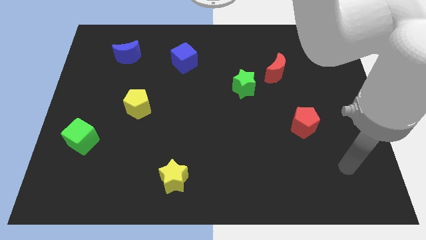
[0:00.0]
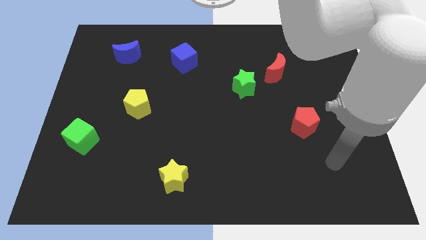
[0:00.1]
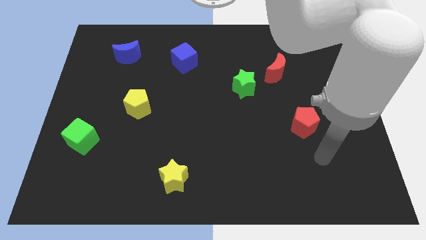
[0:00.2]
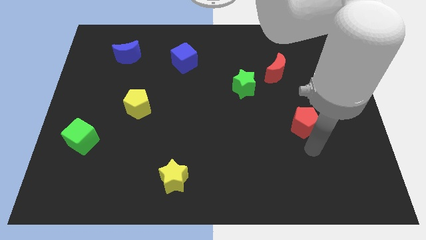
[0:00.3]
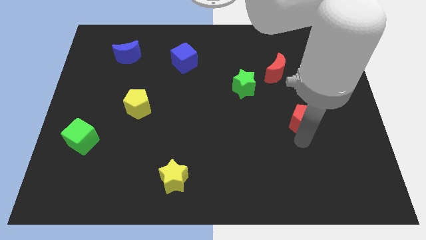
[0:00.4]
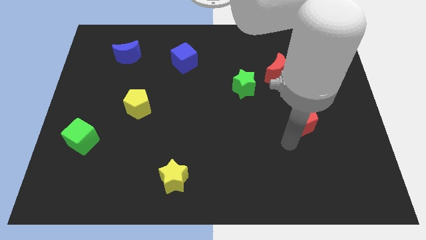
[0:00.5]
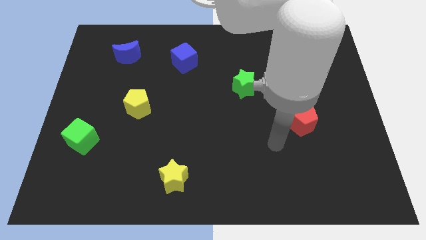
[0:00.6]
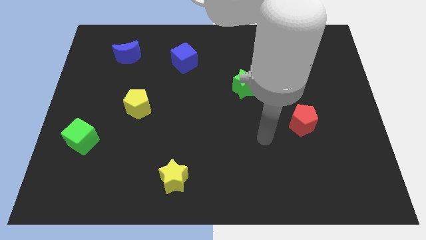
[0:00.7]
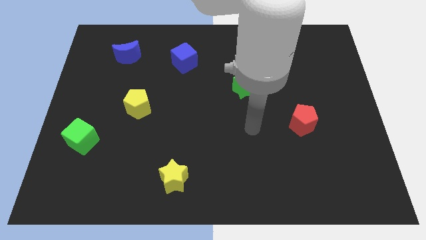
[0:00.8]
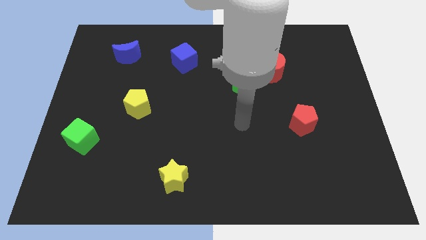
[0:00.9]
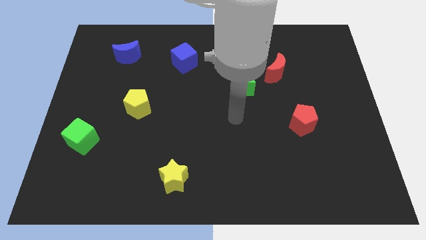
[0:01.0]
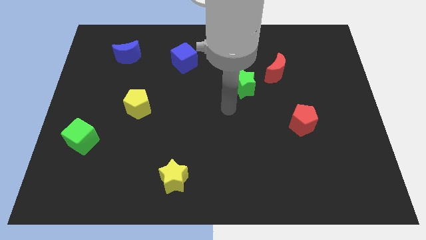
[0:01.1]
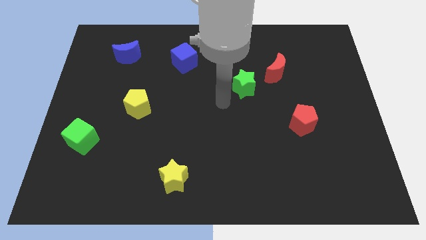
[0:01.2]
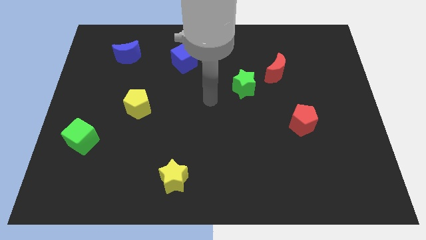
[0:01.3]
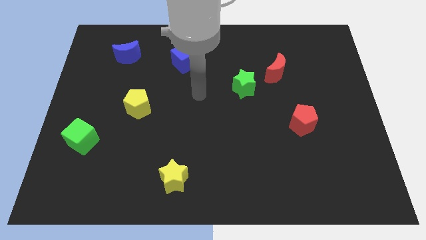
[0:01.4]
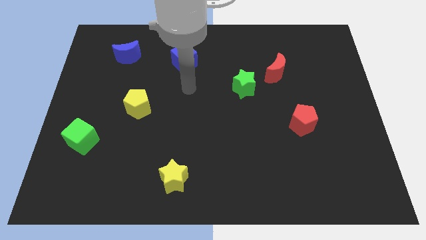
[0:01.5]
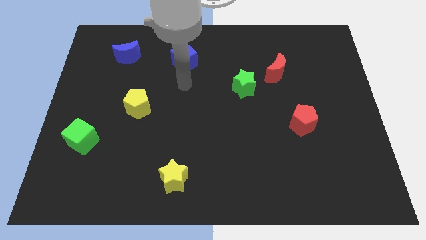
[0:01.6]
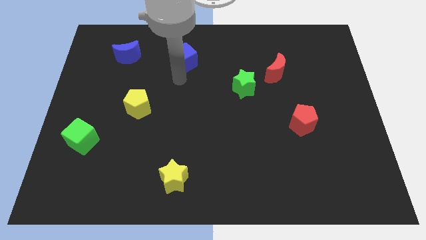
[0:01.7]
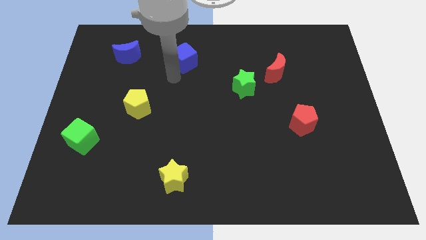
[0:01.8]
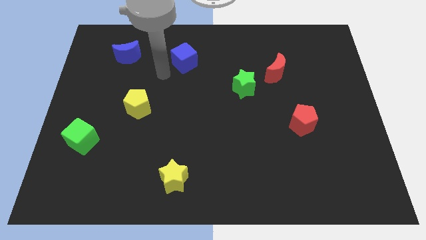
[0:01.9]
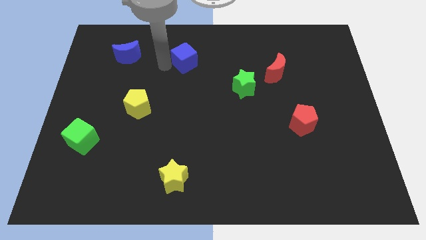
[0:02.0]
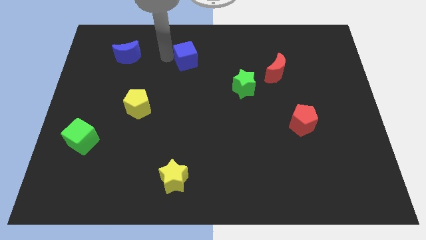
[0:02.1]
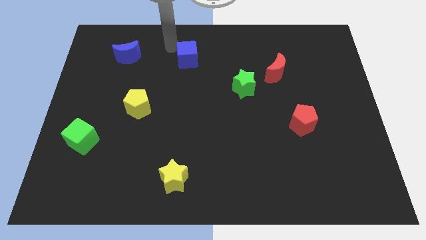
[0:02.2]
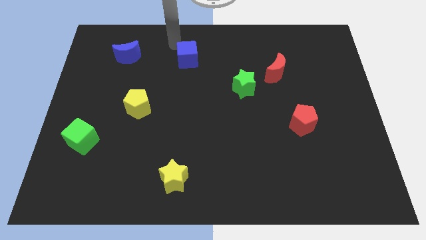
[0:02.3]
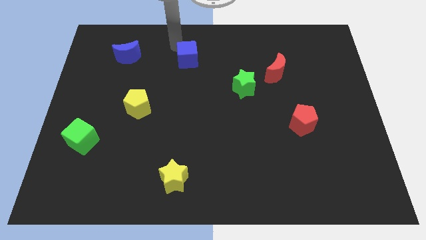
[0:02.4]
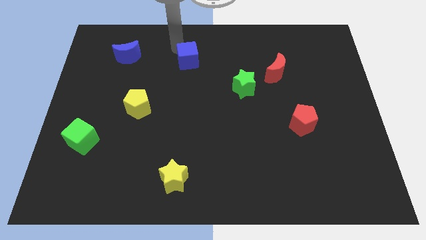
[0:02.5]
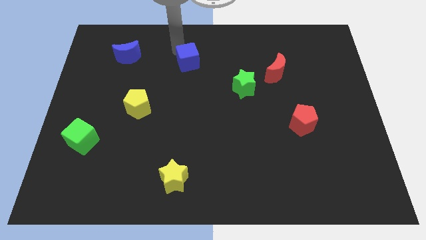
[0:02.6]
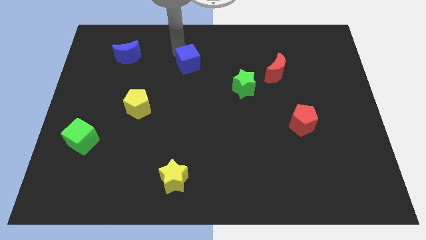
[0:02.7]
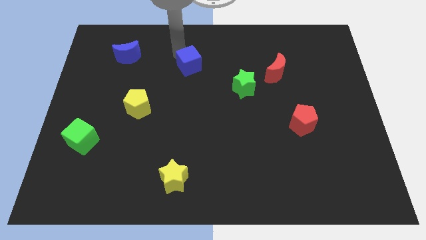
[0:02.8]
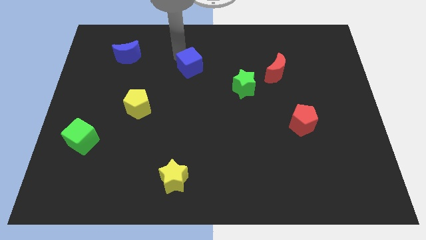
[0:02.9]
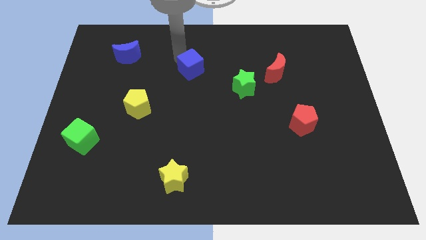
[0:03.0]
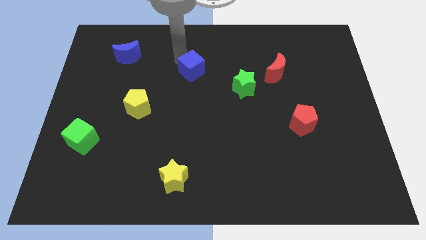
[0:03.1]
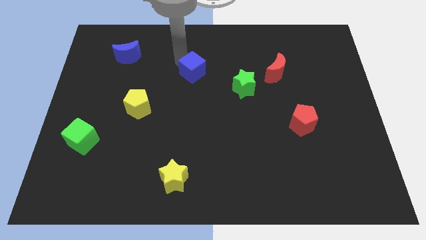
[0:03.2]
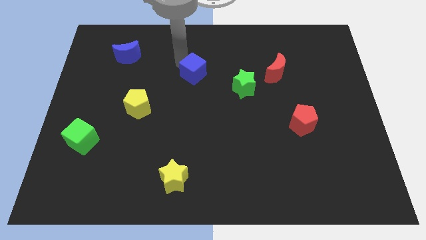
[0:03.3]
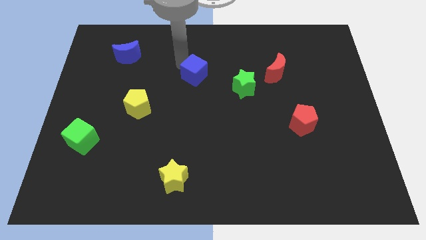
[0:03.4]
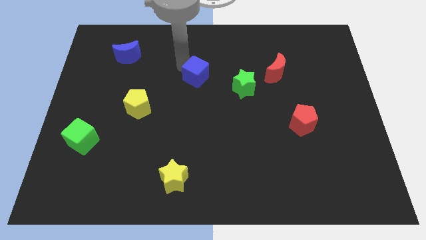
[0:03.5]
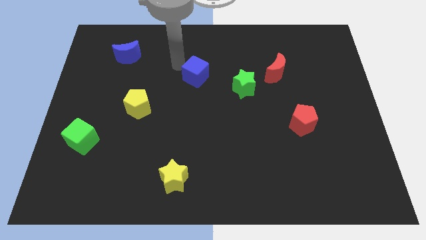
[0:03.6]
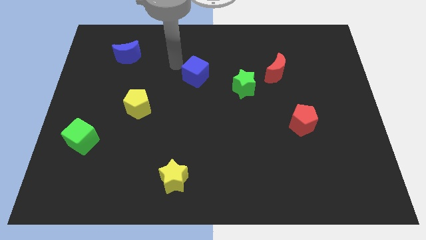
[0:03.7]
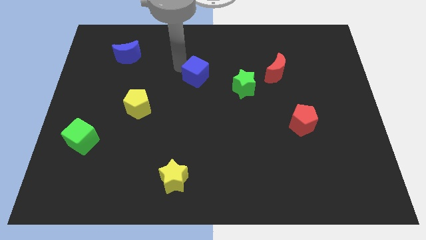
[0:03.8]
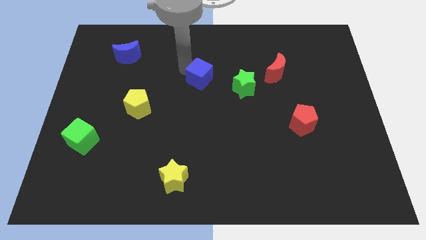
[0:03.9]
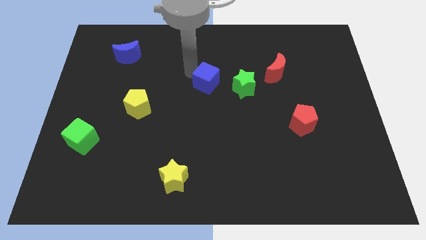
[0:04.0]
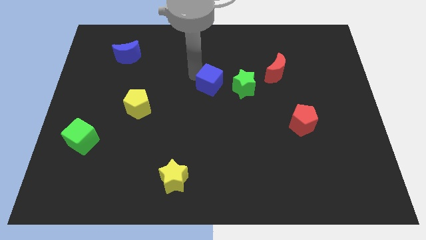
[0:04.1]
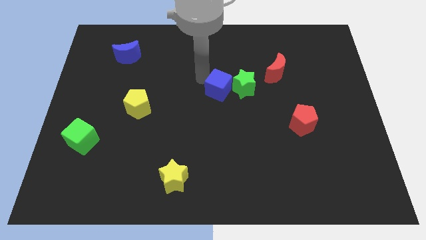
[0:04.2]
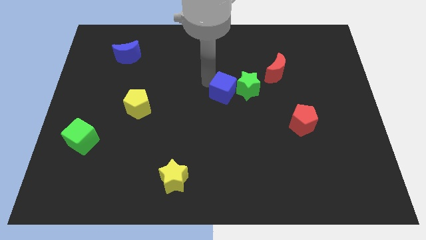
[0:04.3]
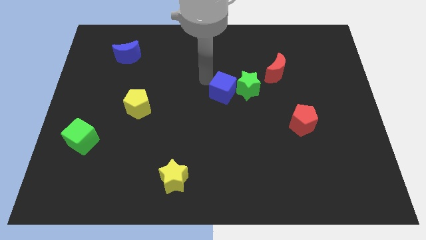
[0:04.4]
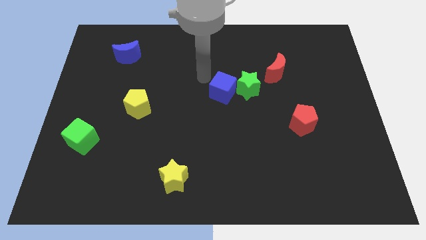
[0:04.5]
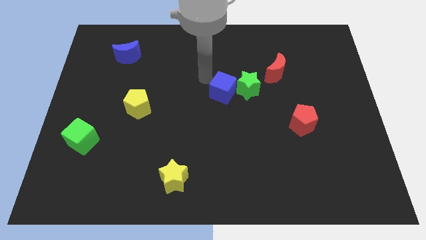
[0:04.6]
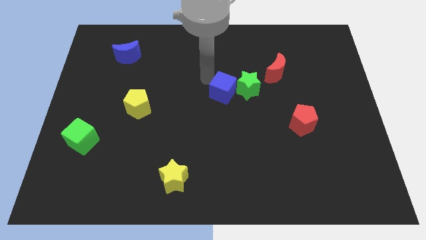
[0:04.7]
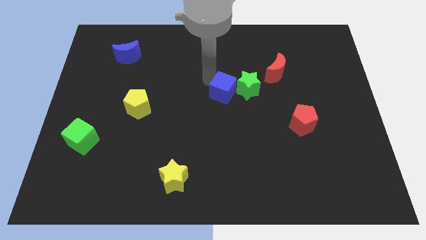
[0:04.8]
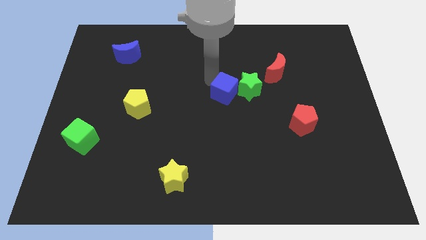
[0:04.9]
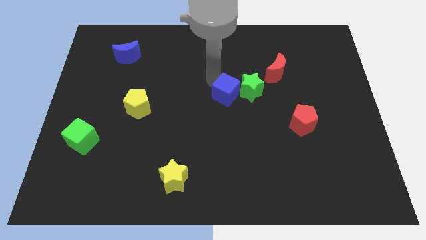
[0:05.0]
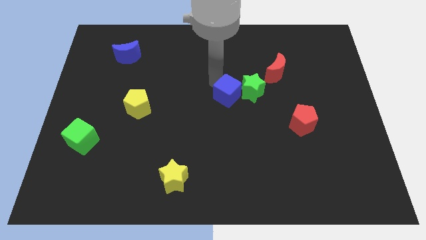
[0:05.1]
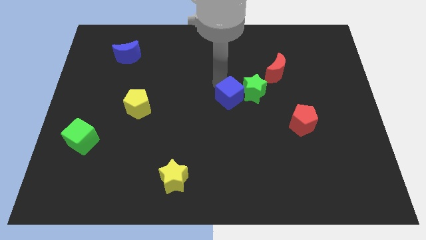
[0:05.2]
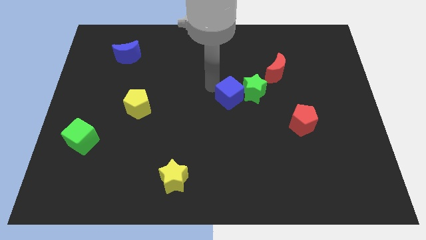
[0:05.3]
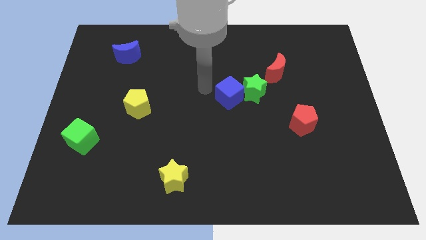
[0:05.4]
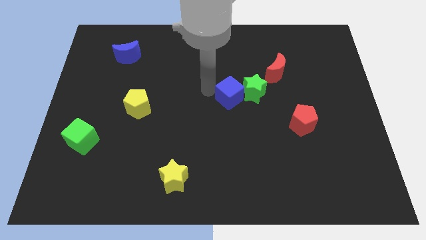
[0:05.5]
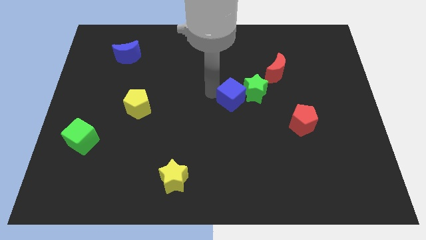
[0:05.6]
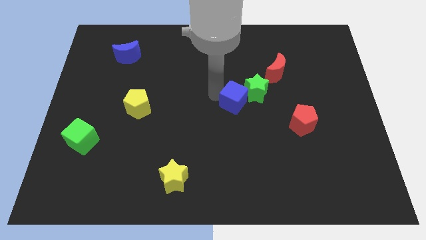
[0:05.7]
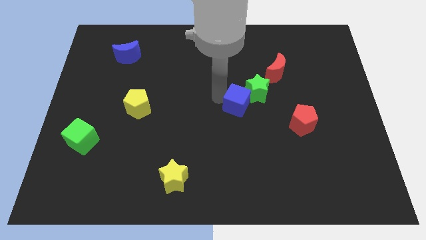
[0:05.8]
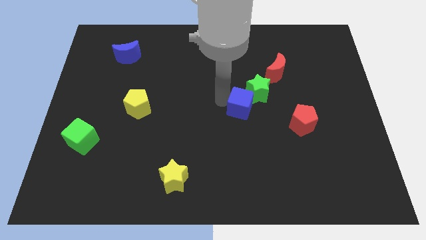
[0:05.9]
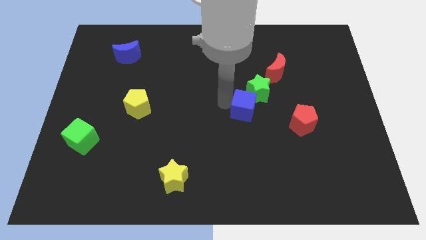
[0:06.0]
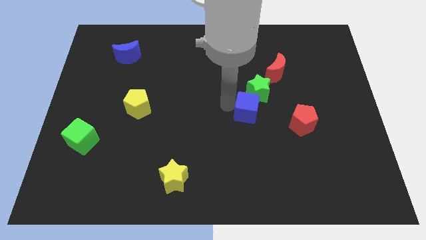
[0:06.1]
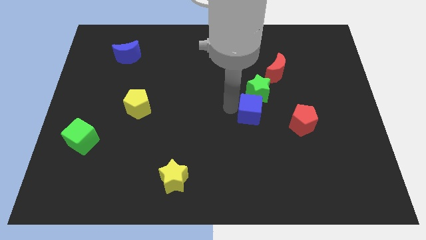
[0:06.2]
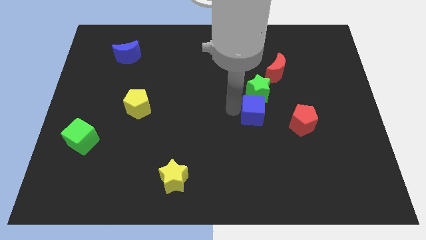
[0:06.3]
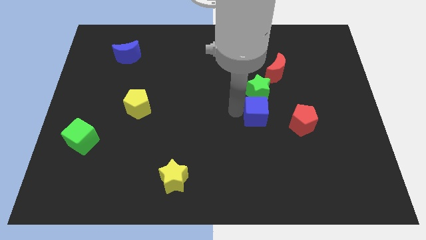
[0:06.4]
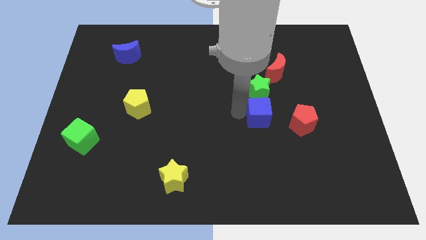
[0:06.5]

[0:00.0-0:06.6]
move the blue cube diagonally down and to the right of the green star

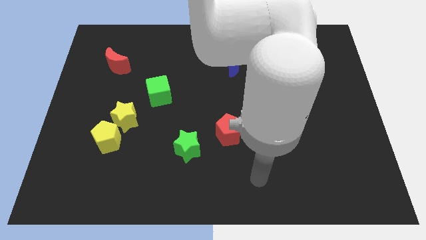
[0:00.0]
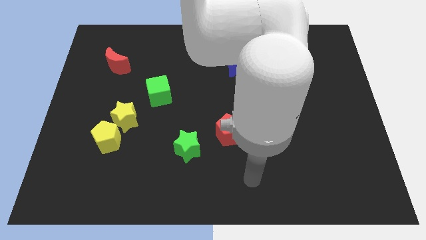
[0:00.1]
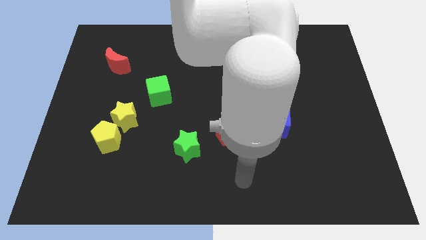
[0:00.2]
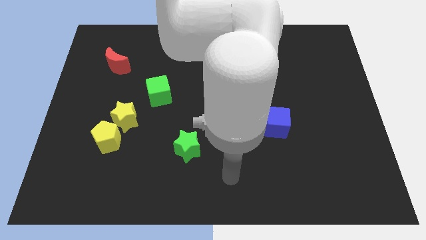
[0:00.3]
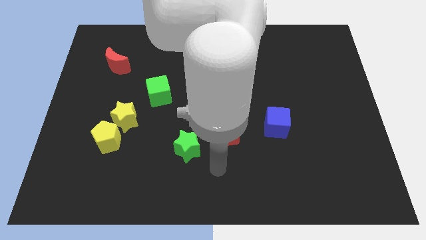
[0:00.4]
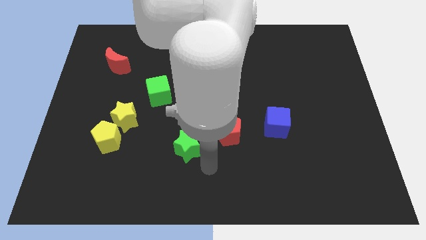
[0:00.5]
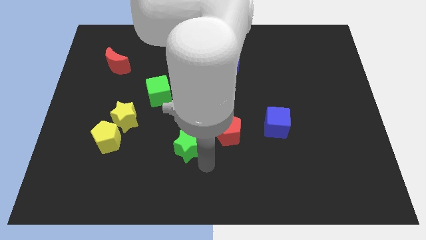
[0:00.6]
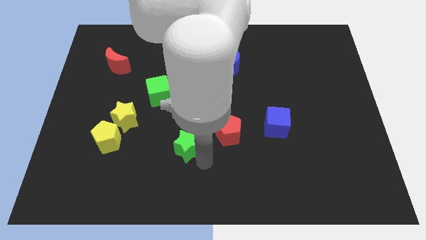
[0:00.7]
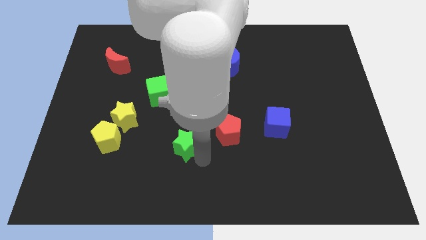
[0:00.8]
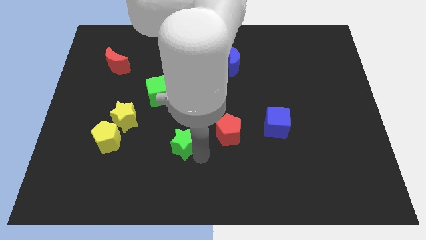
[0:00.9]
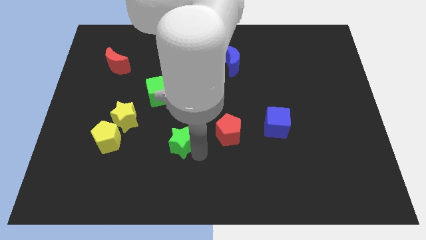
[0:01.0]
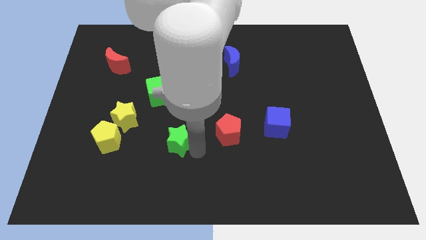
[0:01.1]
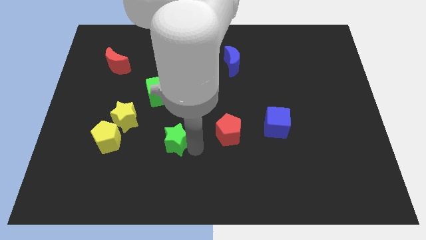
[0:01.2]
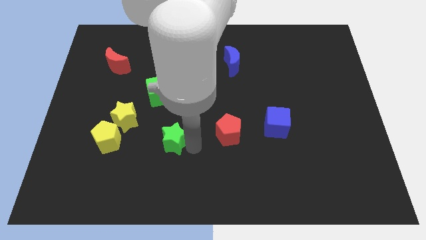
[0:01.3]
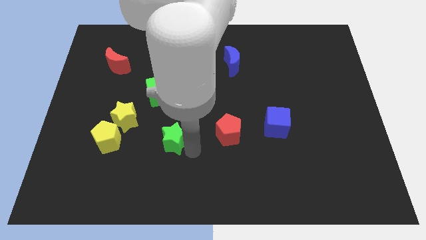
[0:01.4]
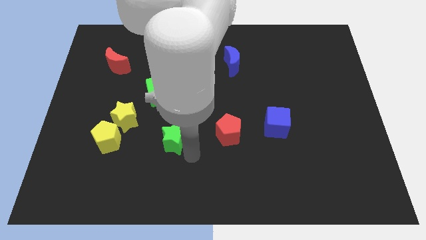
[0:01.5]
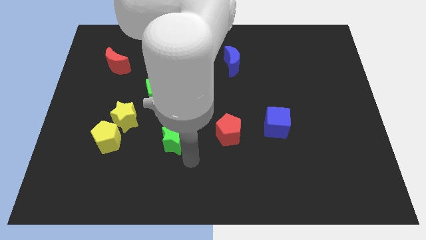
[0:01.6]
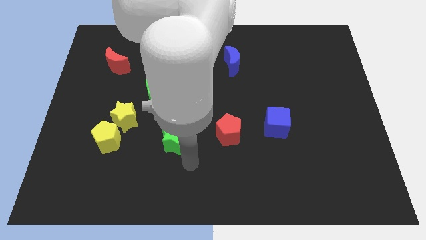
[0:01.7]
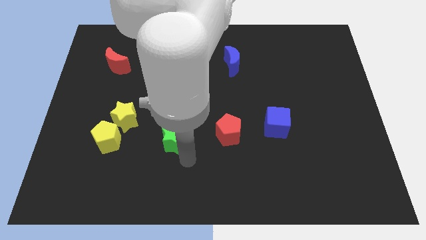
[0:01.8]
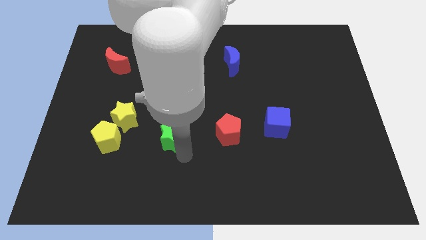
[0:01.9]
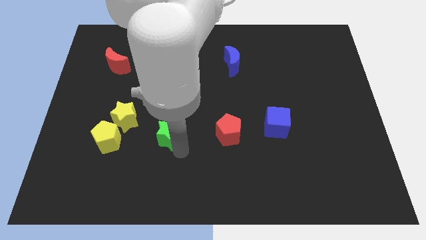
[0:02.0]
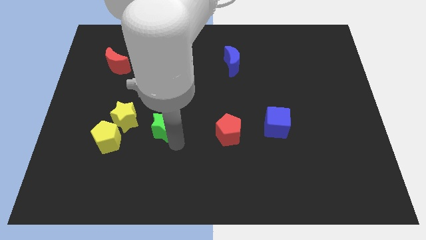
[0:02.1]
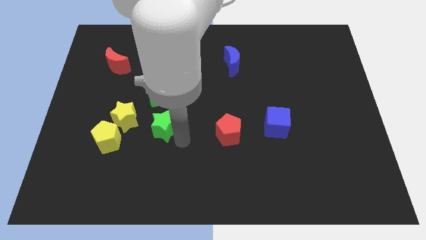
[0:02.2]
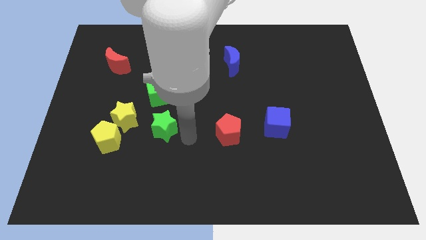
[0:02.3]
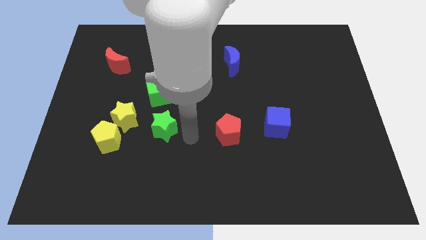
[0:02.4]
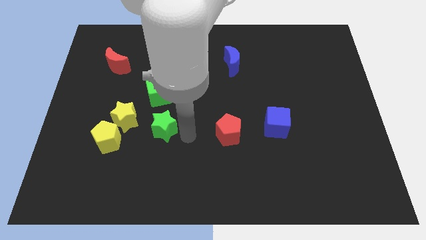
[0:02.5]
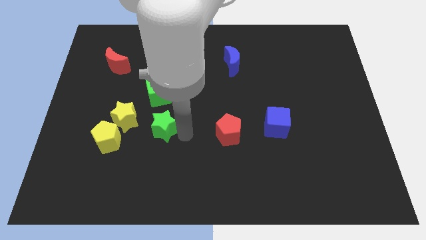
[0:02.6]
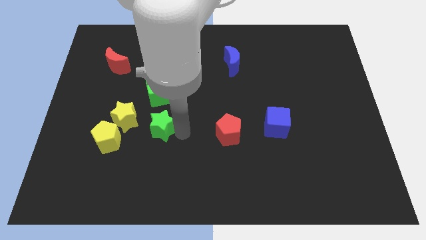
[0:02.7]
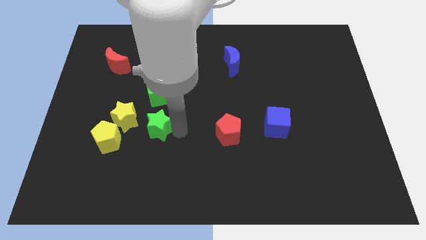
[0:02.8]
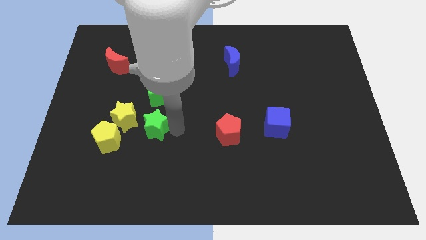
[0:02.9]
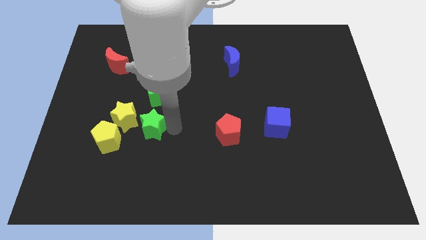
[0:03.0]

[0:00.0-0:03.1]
slide the green star to the top right side of the yellow pentagon
